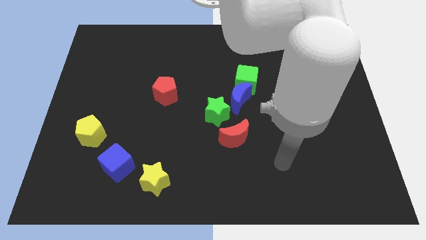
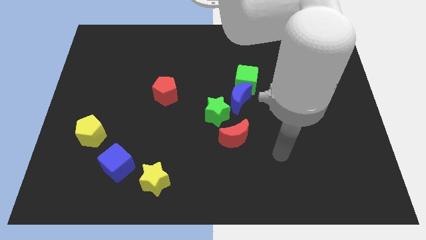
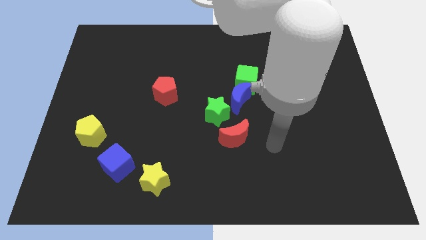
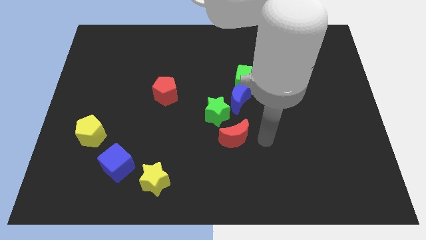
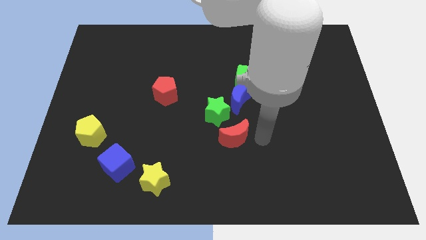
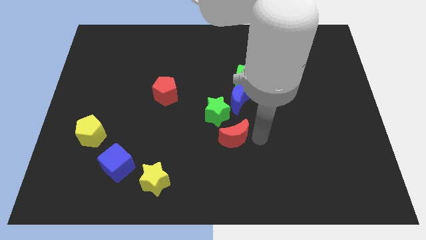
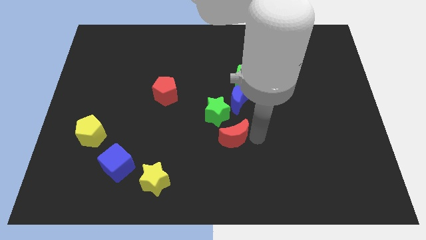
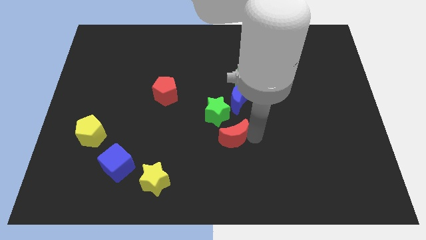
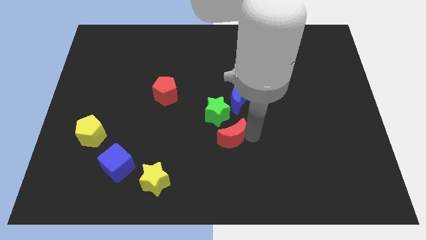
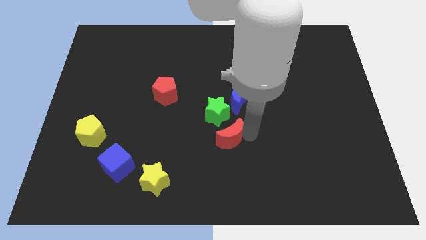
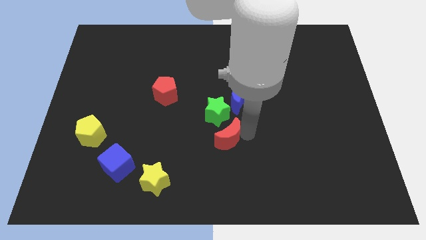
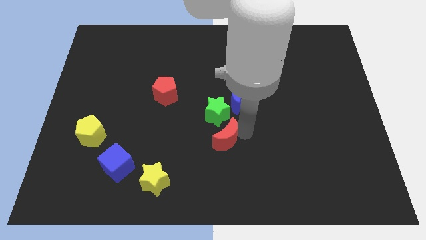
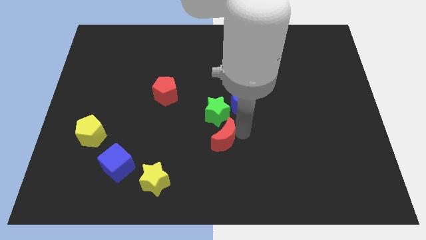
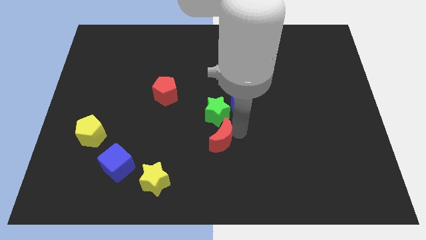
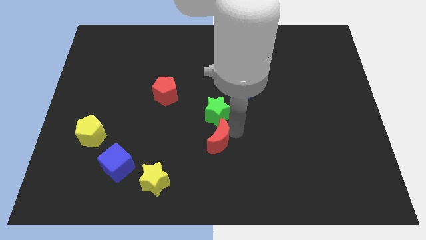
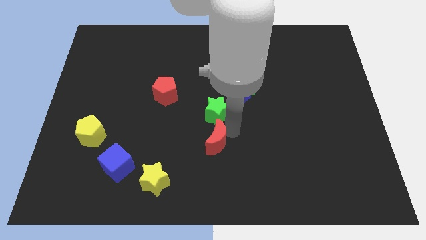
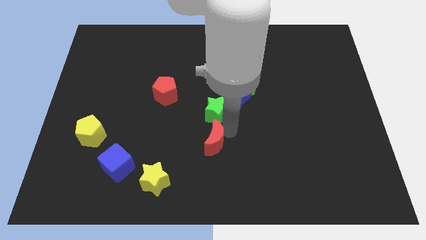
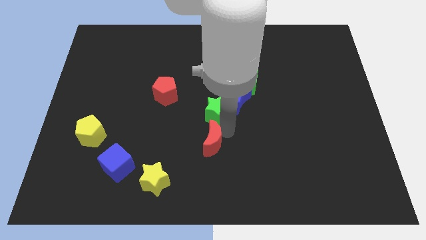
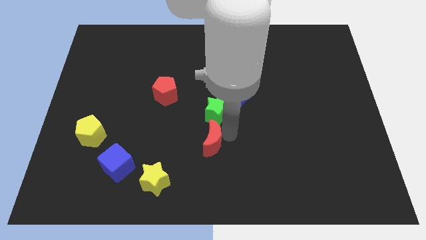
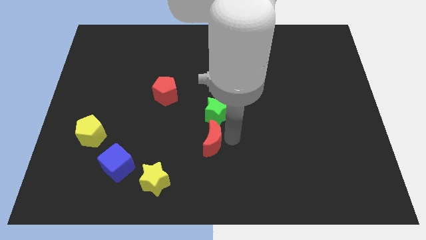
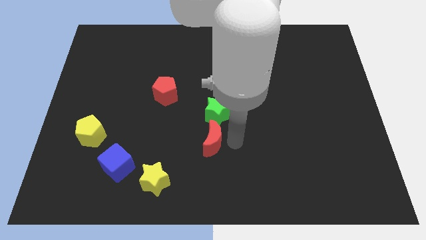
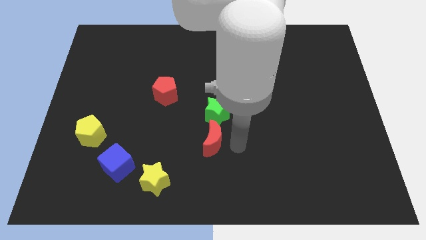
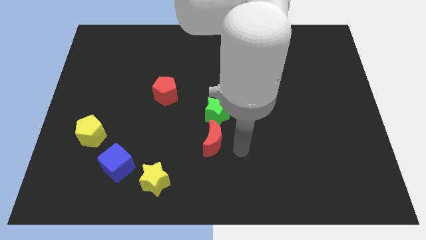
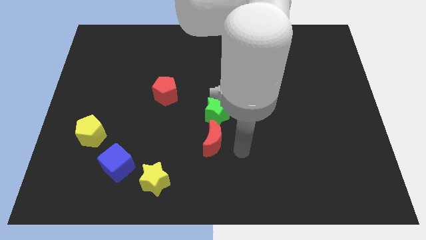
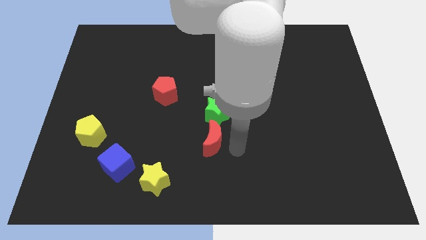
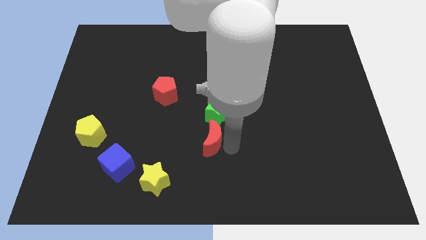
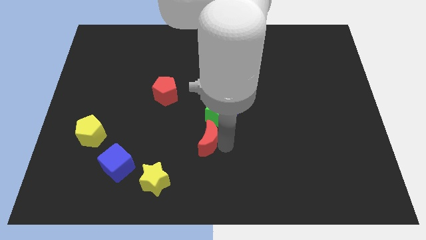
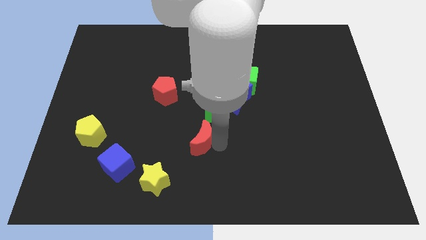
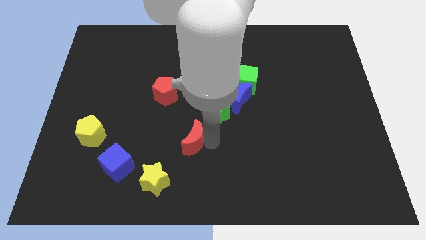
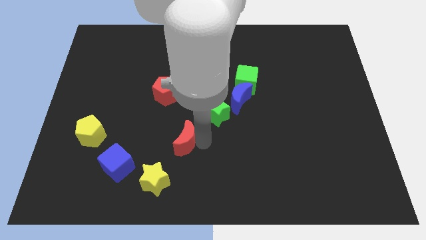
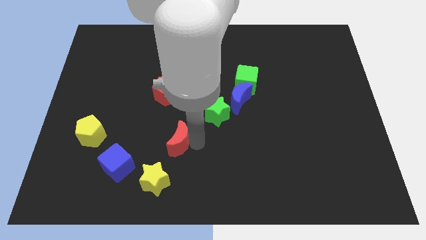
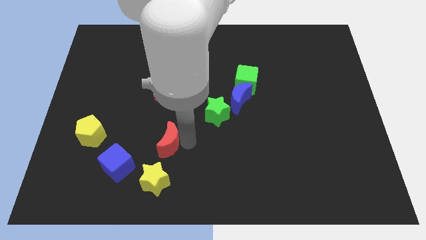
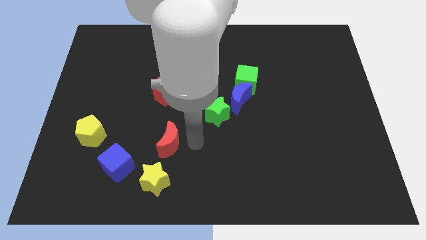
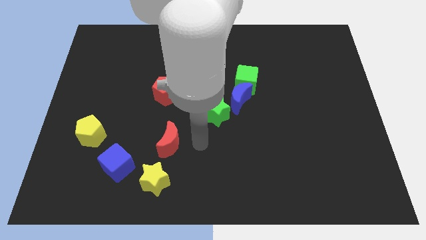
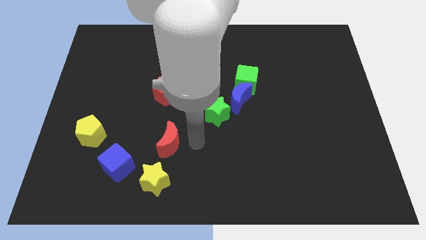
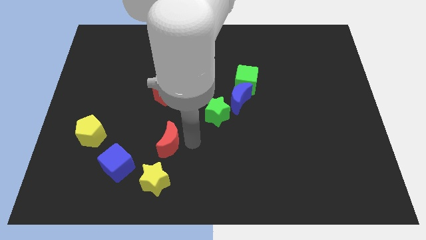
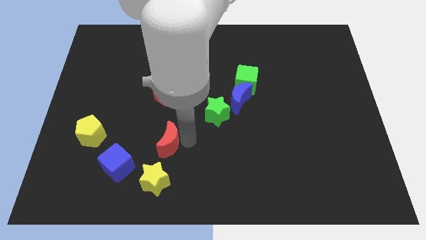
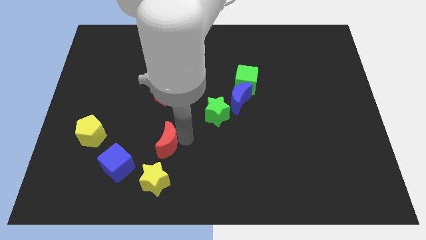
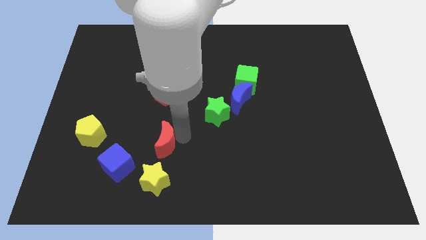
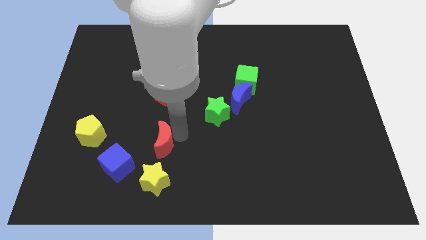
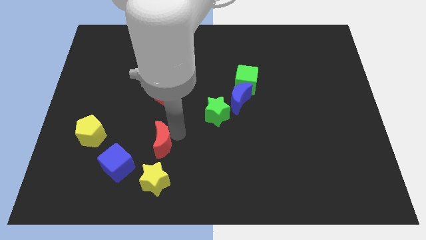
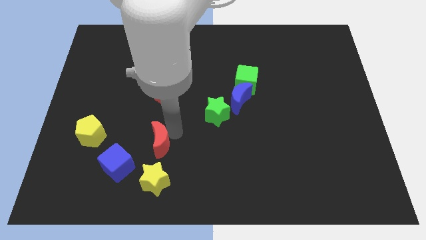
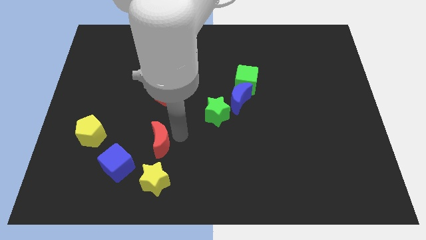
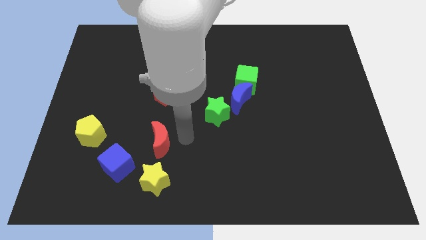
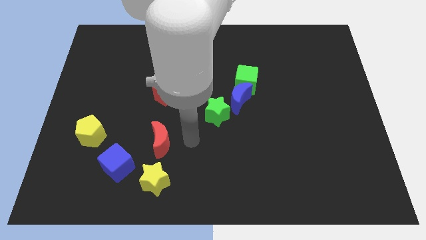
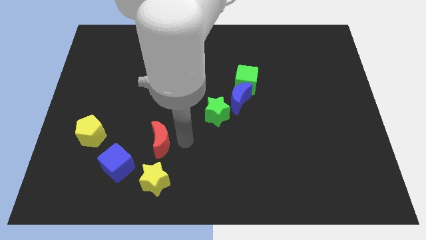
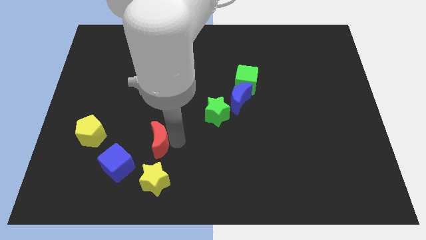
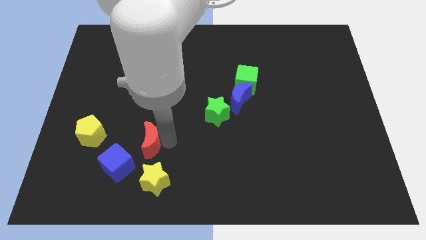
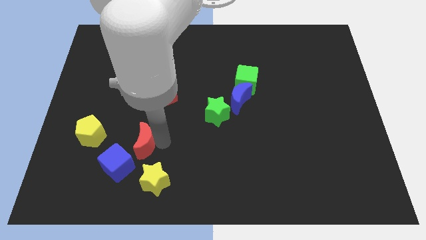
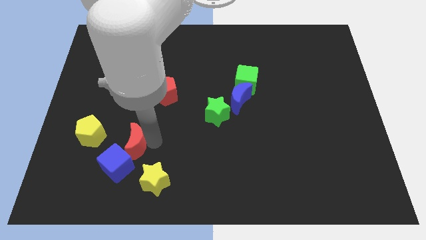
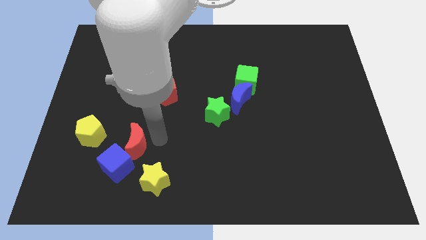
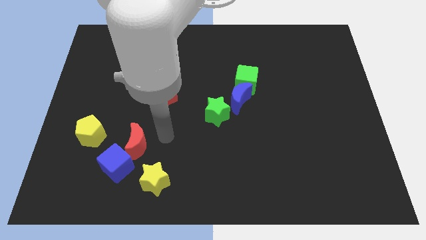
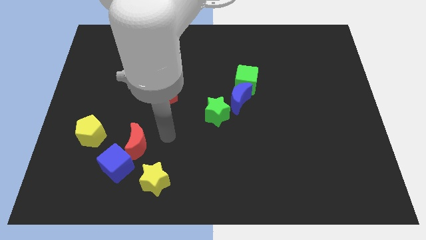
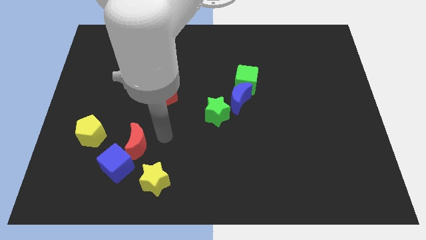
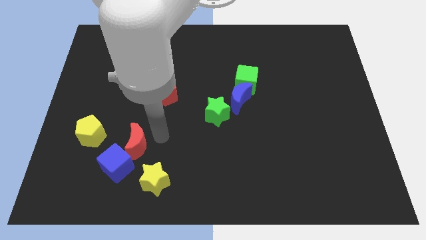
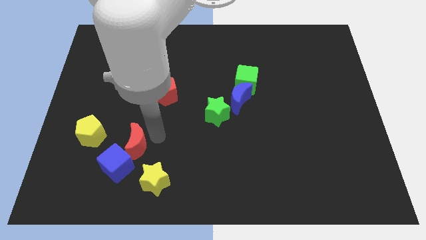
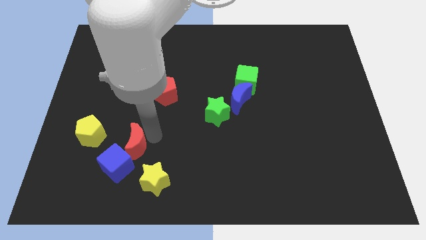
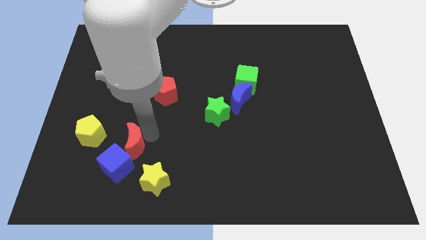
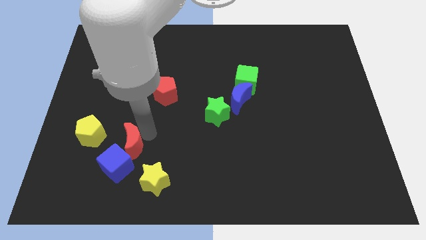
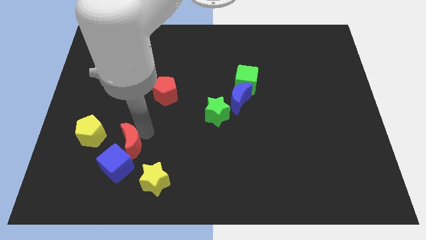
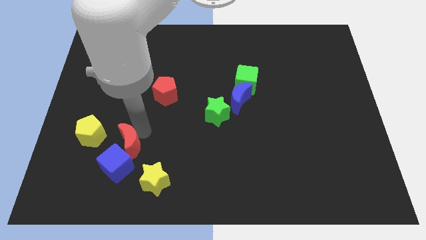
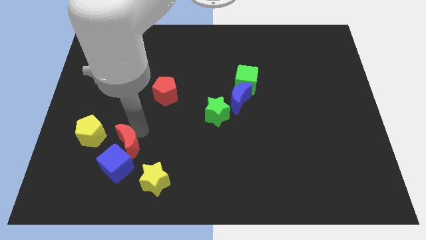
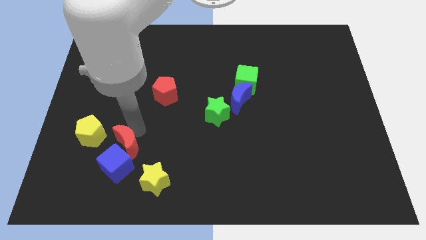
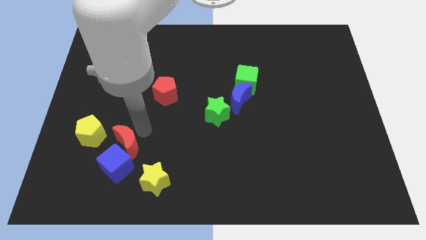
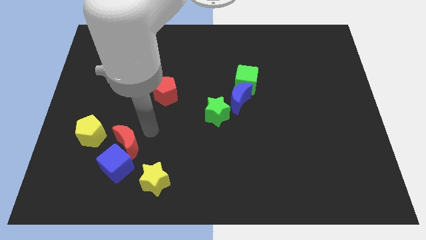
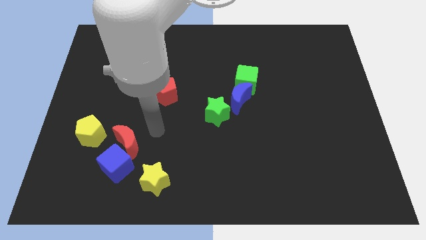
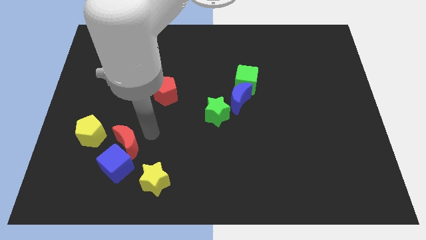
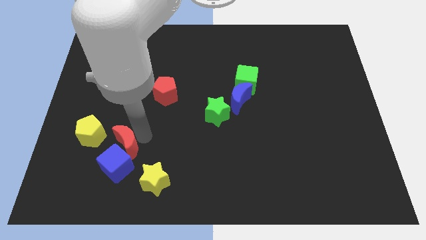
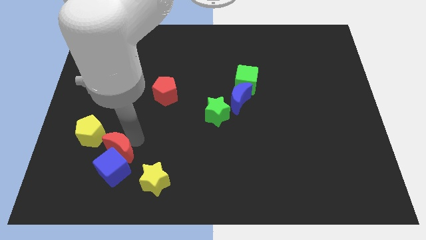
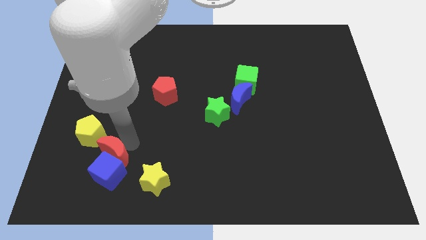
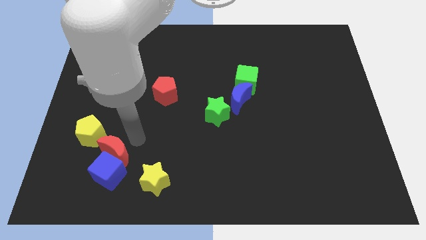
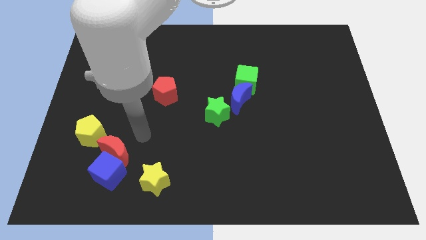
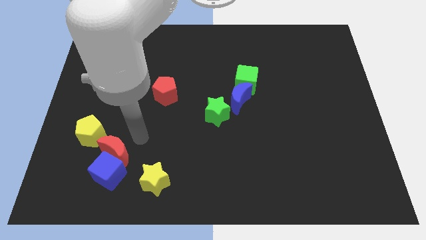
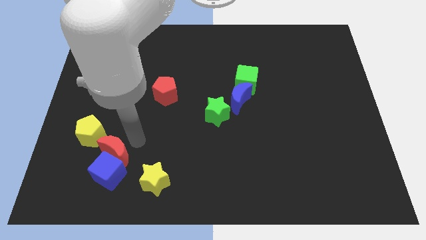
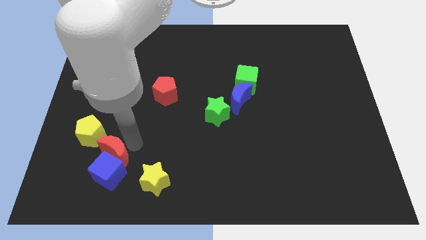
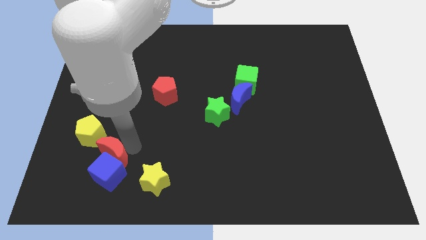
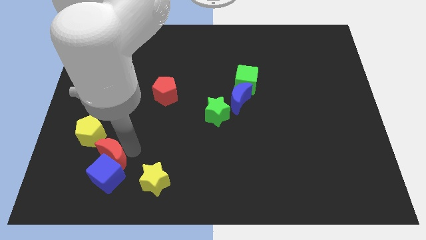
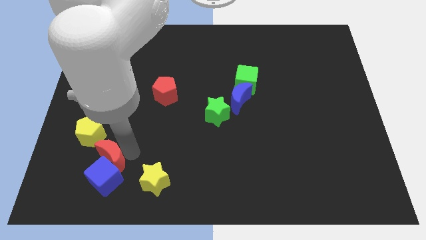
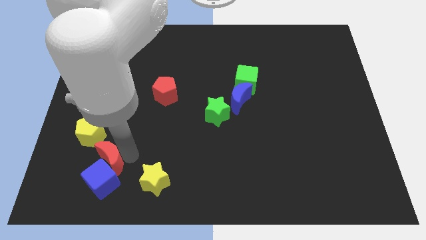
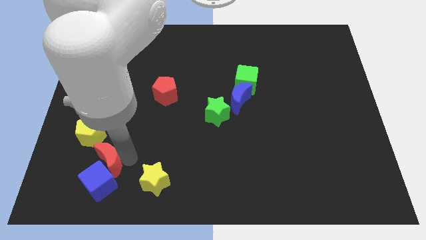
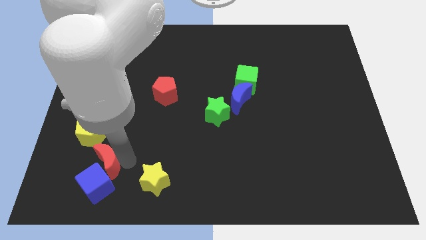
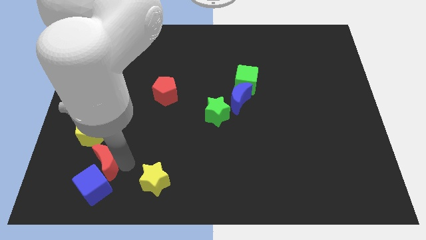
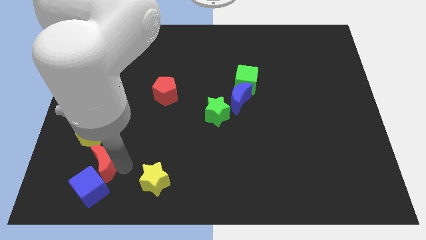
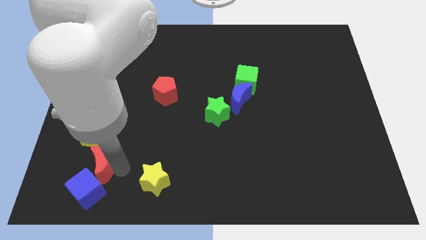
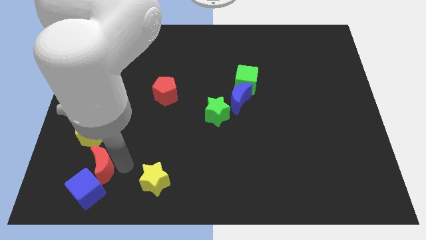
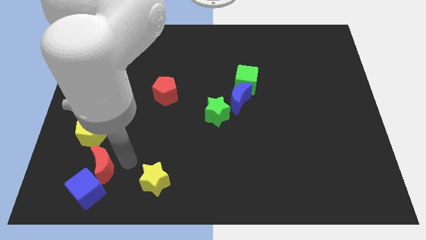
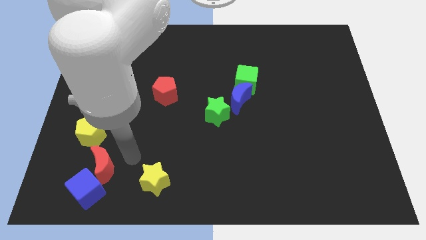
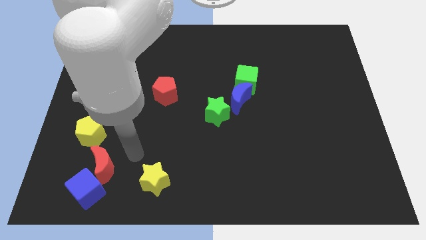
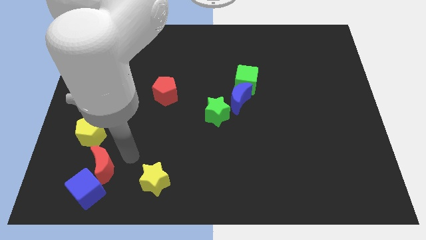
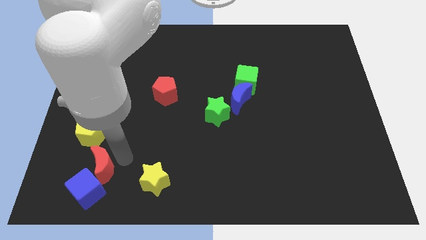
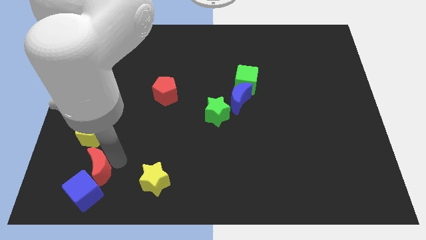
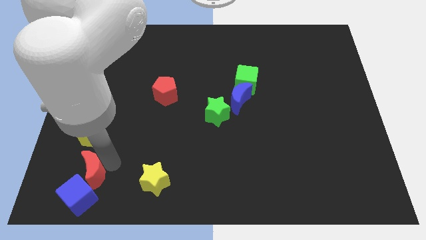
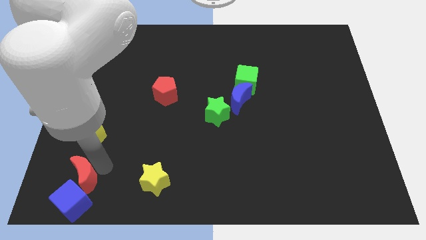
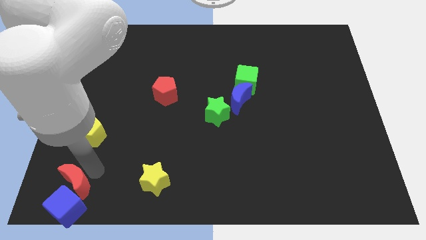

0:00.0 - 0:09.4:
move the red moon to the bottom left
